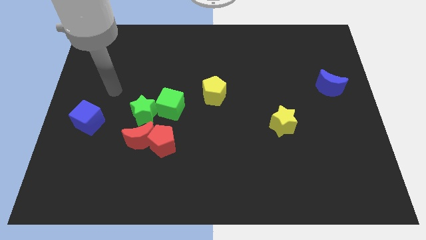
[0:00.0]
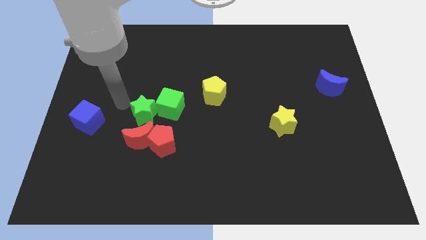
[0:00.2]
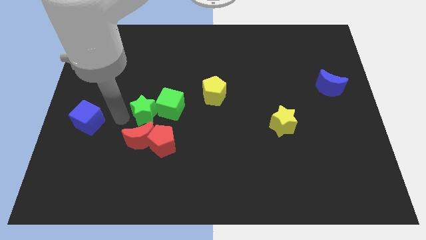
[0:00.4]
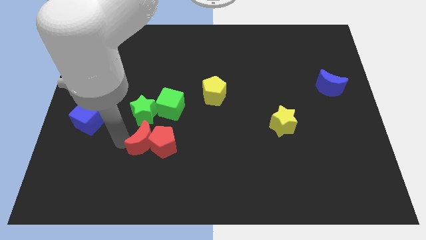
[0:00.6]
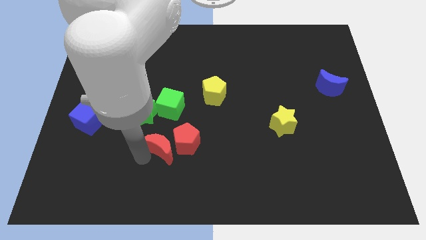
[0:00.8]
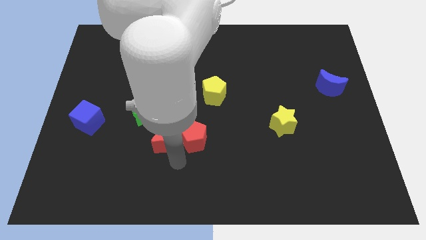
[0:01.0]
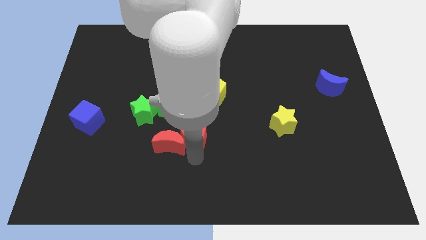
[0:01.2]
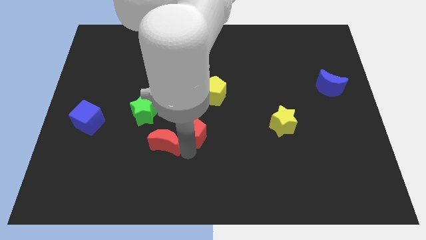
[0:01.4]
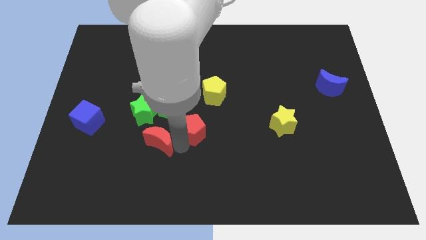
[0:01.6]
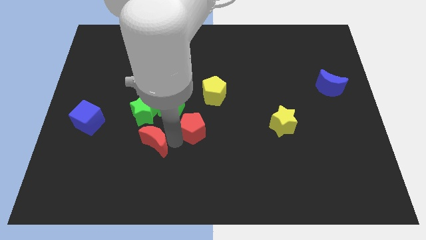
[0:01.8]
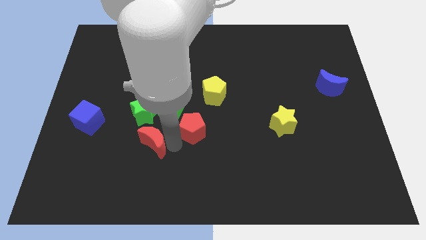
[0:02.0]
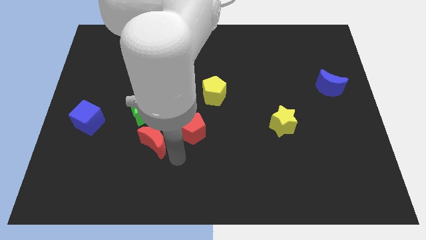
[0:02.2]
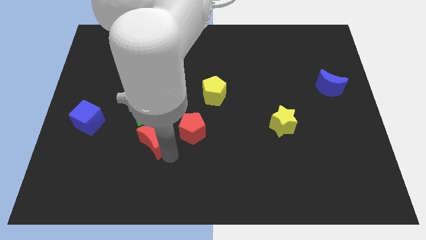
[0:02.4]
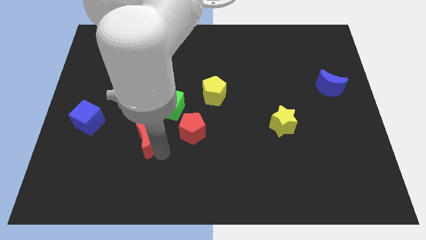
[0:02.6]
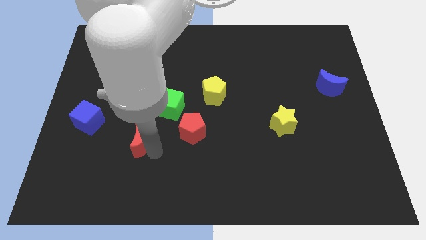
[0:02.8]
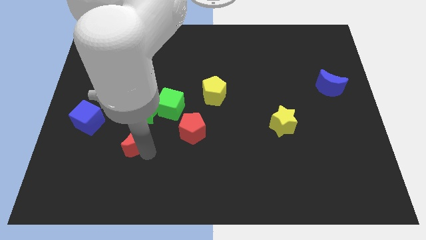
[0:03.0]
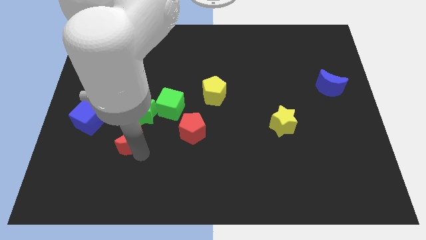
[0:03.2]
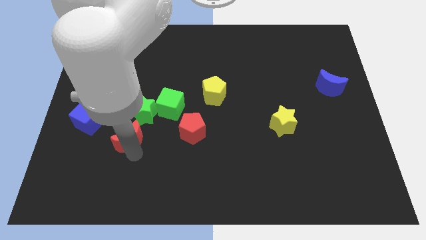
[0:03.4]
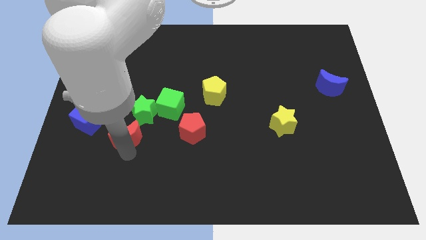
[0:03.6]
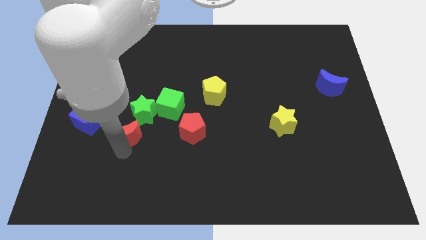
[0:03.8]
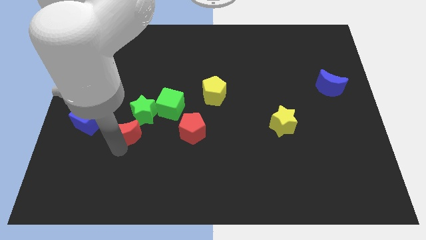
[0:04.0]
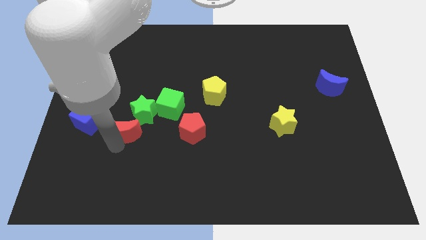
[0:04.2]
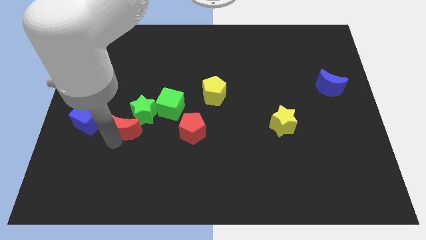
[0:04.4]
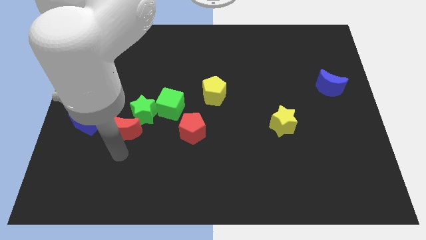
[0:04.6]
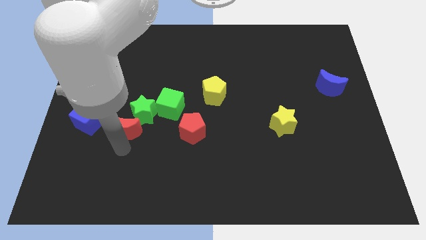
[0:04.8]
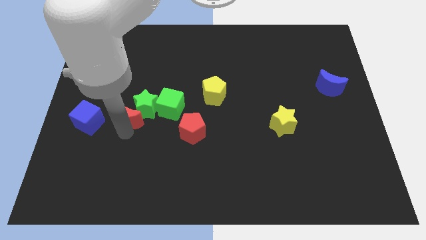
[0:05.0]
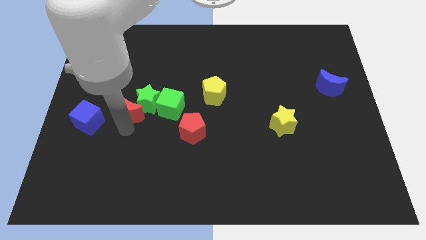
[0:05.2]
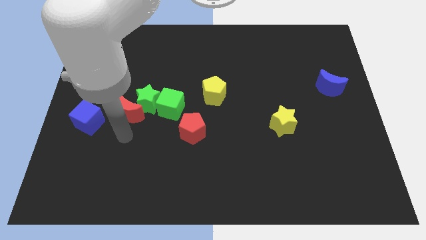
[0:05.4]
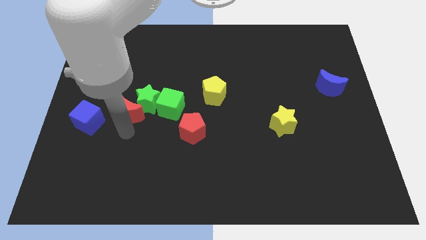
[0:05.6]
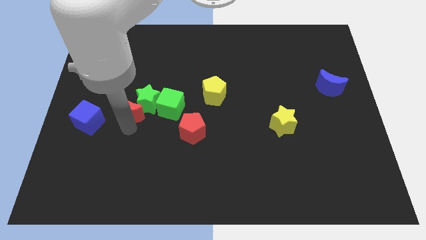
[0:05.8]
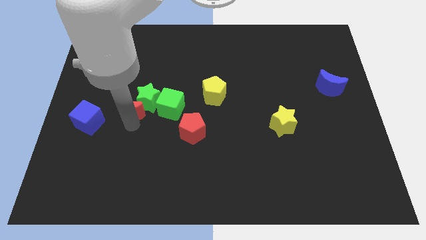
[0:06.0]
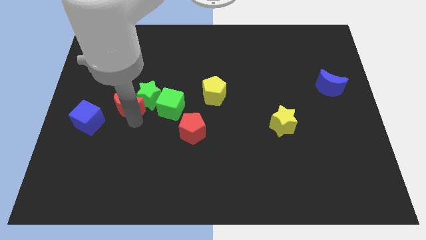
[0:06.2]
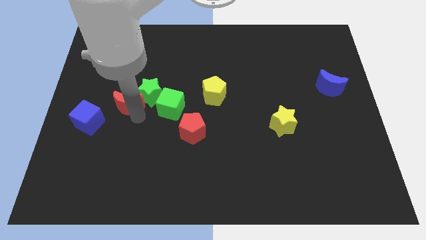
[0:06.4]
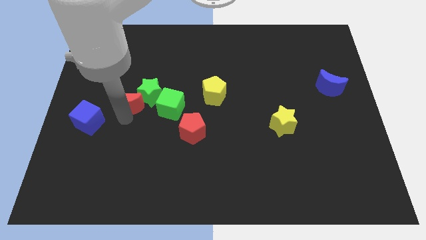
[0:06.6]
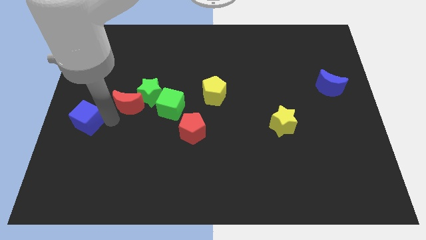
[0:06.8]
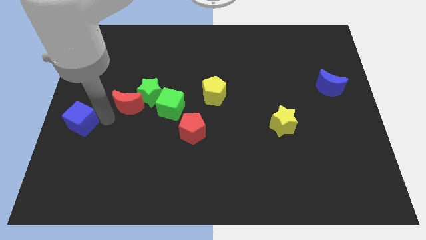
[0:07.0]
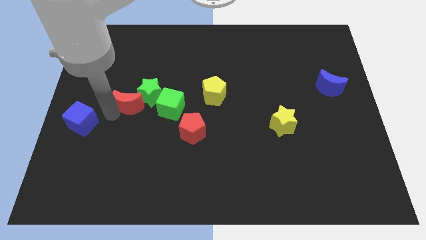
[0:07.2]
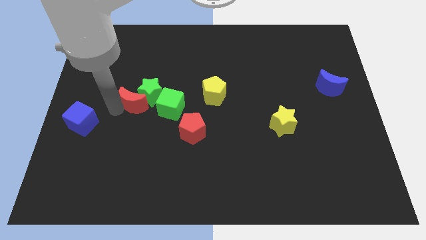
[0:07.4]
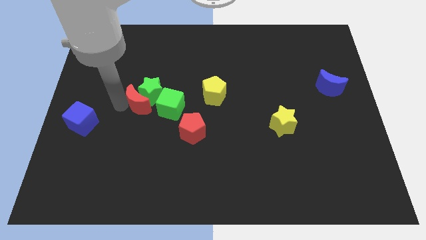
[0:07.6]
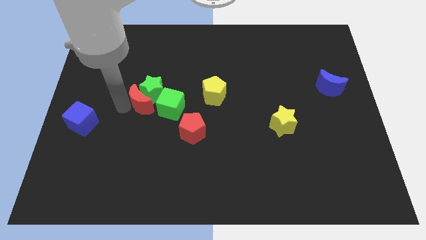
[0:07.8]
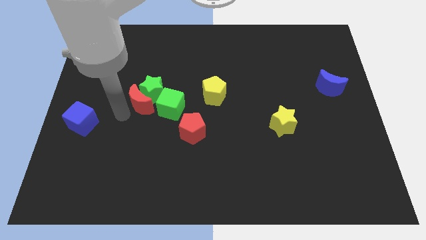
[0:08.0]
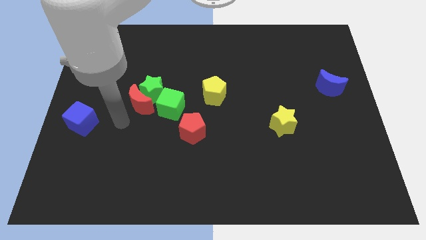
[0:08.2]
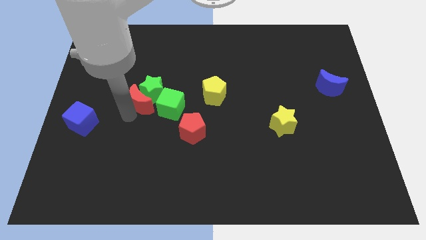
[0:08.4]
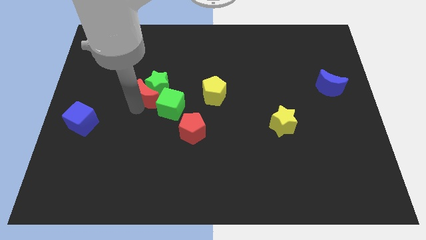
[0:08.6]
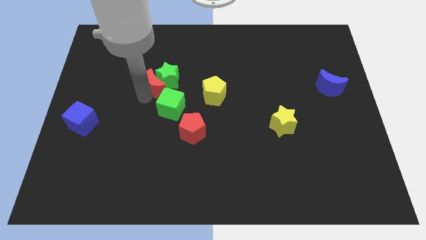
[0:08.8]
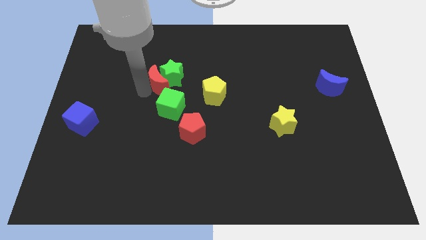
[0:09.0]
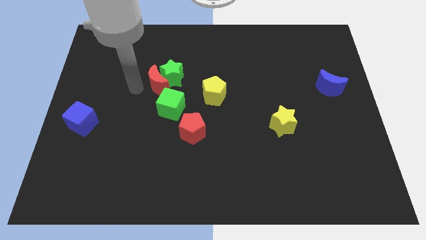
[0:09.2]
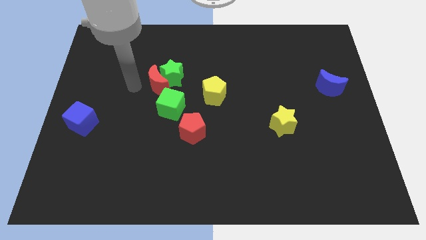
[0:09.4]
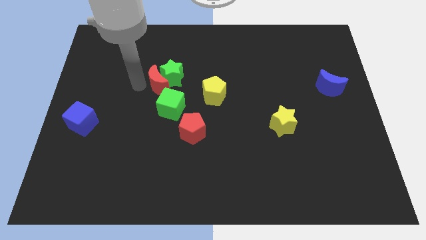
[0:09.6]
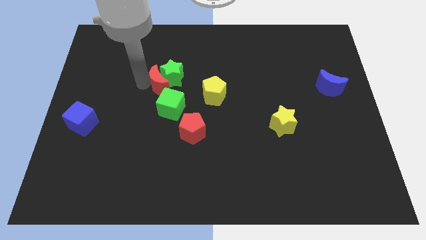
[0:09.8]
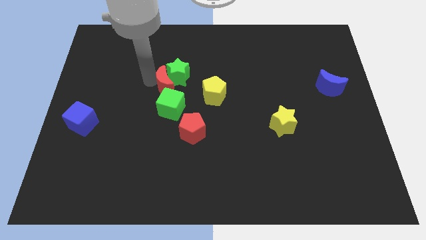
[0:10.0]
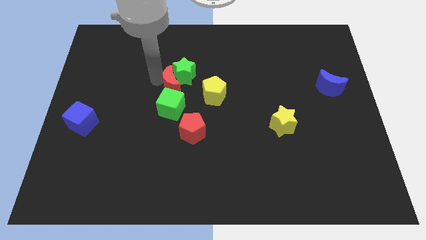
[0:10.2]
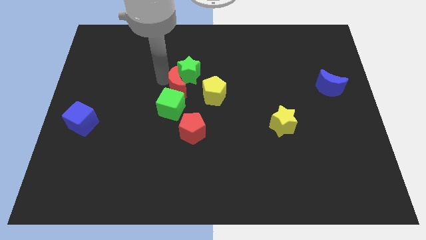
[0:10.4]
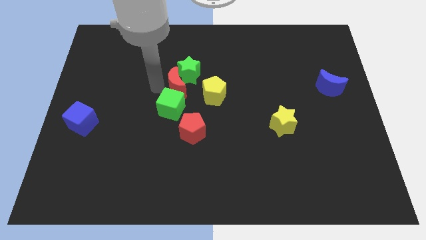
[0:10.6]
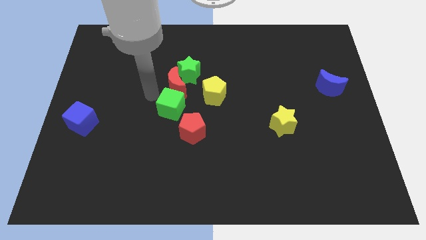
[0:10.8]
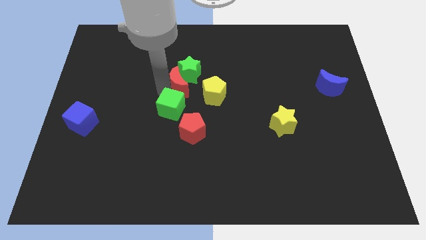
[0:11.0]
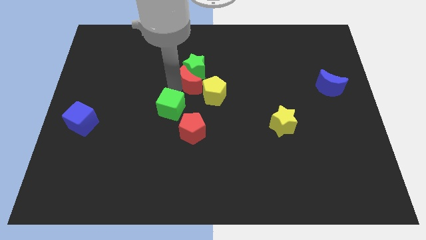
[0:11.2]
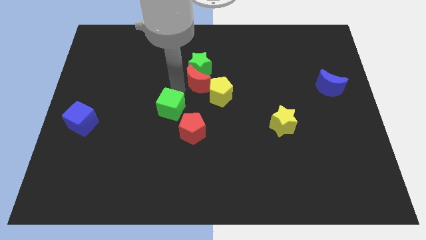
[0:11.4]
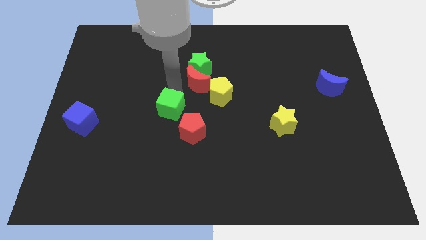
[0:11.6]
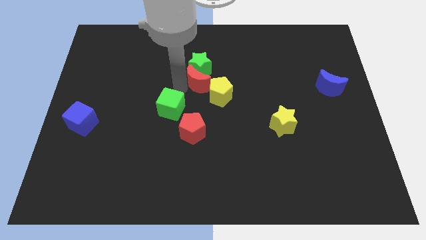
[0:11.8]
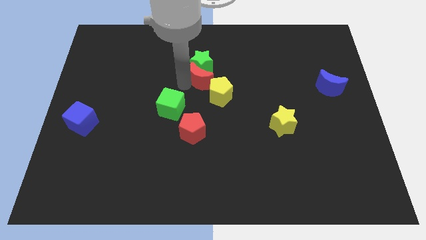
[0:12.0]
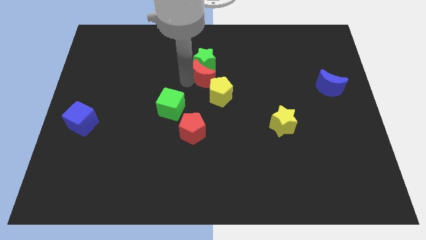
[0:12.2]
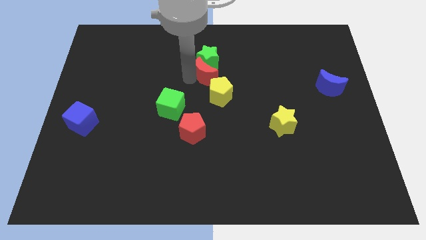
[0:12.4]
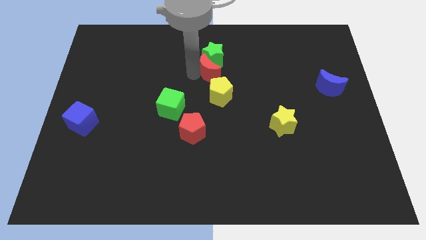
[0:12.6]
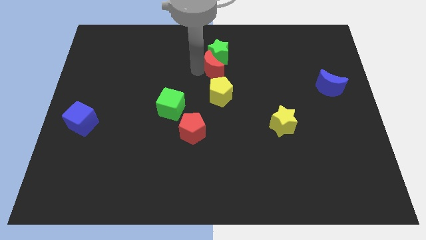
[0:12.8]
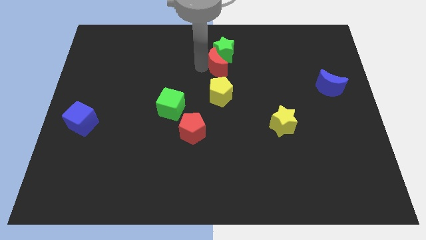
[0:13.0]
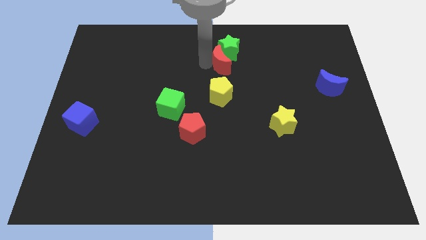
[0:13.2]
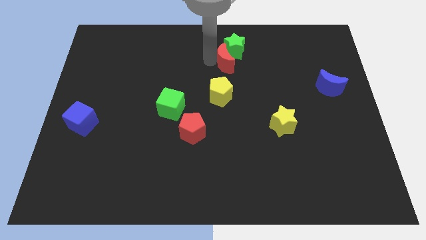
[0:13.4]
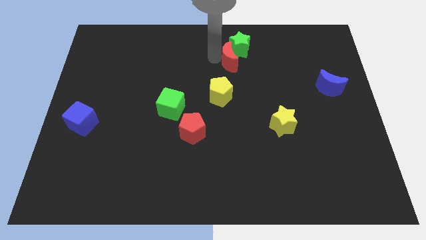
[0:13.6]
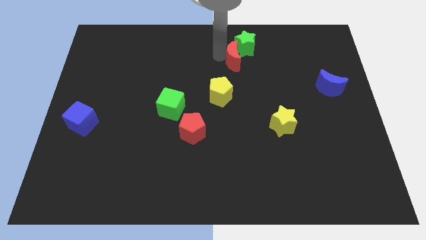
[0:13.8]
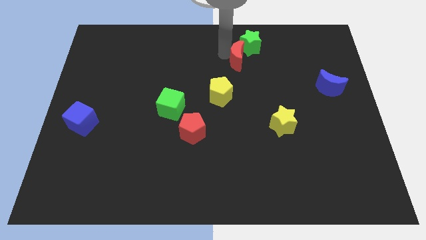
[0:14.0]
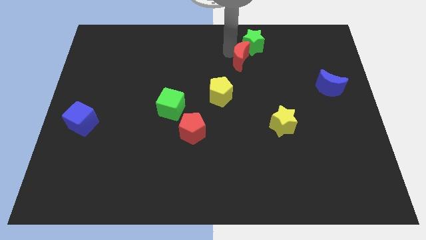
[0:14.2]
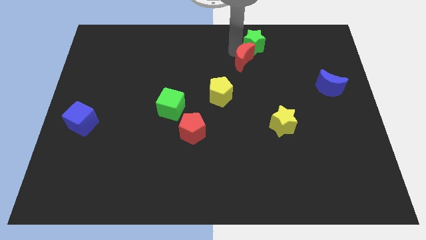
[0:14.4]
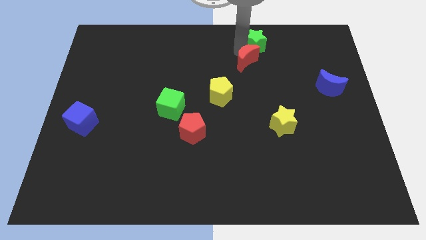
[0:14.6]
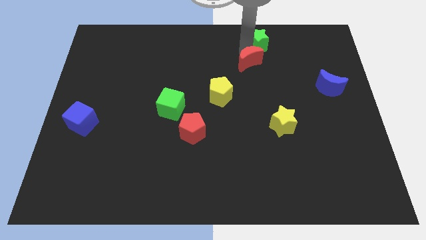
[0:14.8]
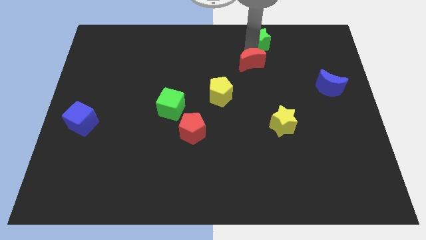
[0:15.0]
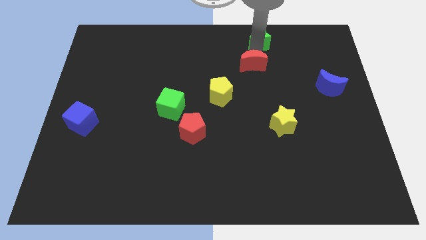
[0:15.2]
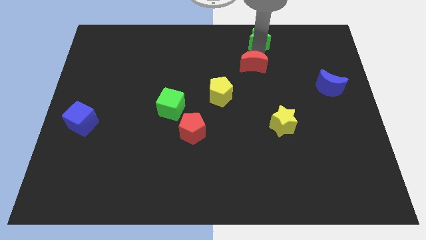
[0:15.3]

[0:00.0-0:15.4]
slide the red moon diagonally up and to the right of the yellow pentagon
